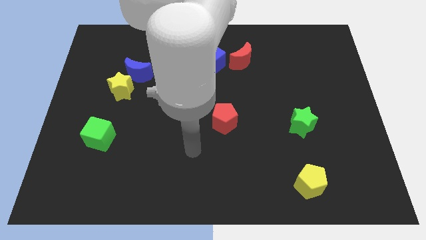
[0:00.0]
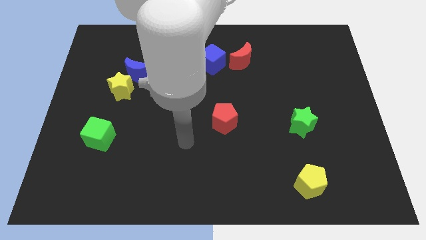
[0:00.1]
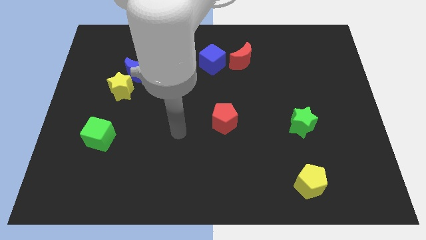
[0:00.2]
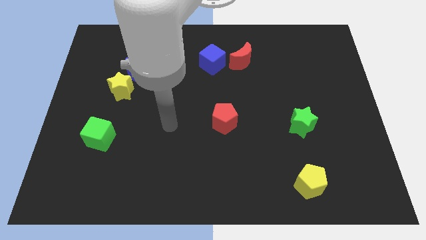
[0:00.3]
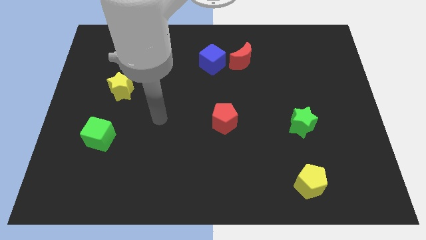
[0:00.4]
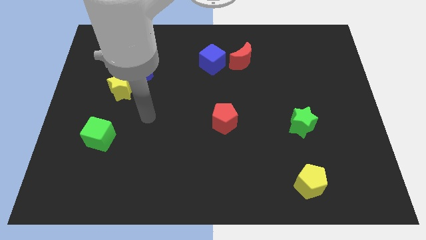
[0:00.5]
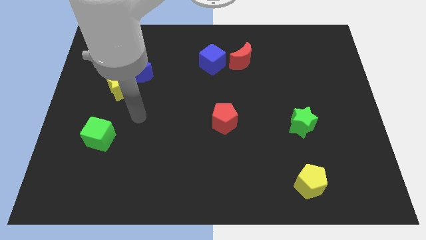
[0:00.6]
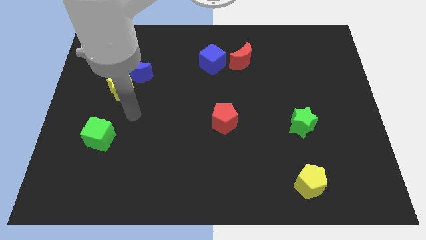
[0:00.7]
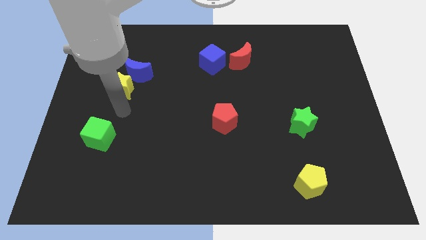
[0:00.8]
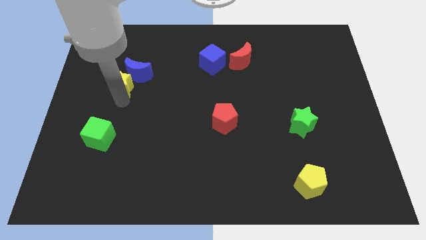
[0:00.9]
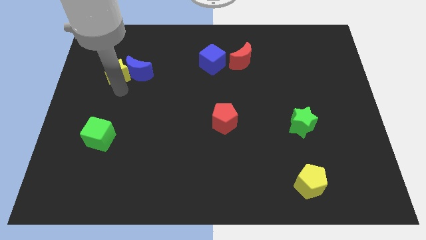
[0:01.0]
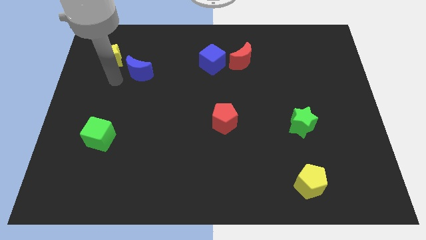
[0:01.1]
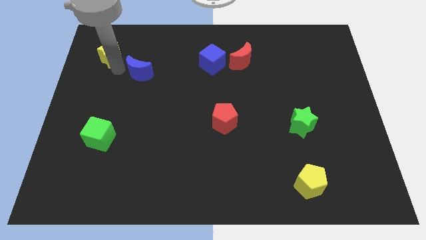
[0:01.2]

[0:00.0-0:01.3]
pull the blue moon apart from the yellow star

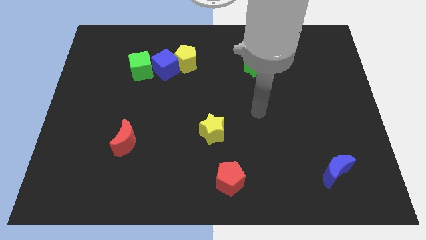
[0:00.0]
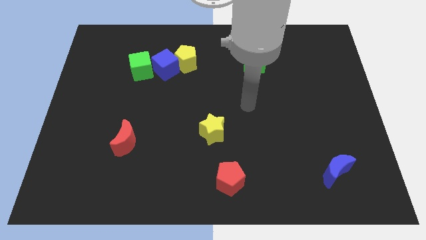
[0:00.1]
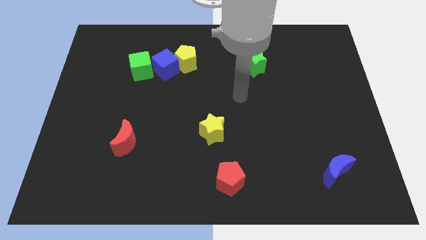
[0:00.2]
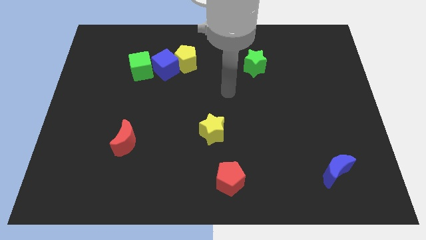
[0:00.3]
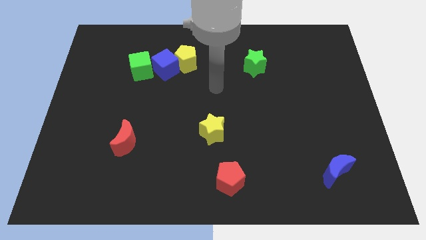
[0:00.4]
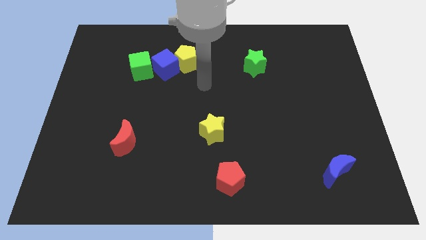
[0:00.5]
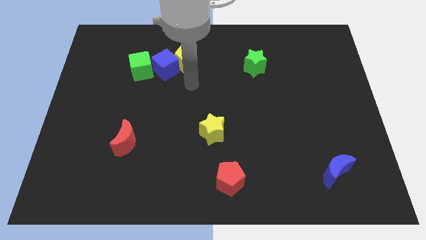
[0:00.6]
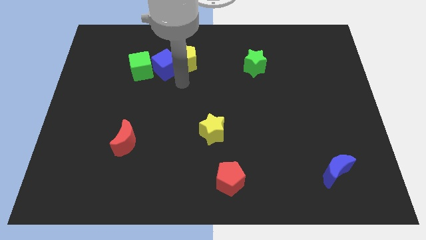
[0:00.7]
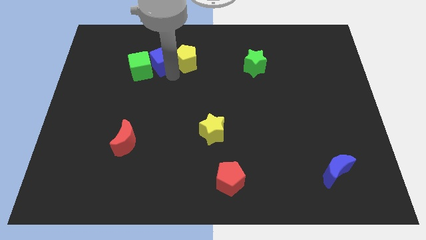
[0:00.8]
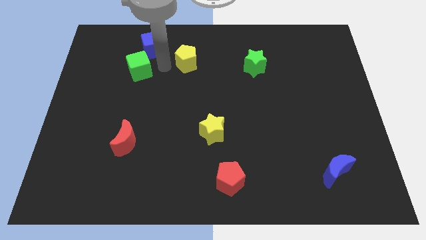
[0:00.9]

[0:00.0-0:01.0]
pull the yellow pentagon apart from the blue cube

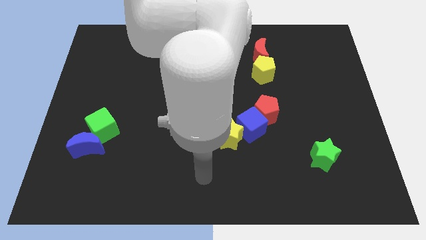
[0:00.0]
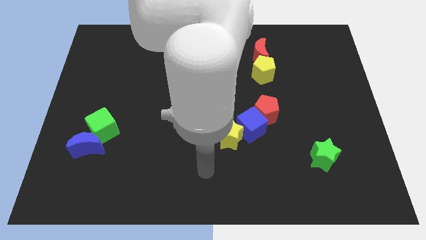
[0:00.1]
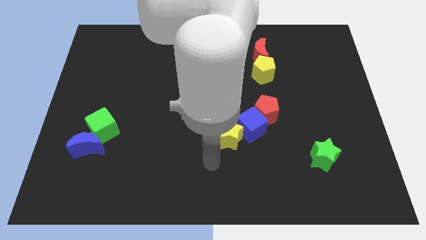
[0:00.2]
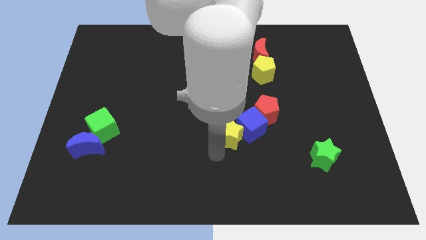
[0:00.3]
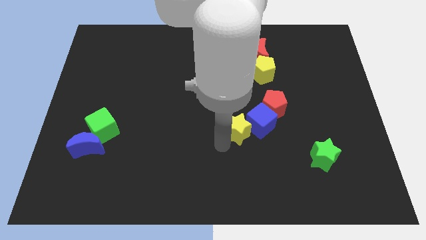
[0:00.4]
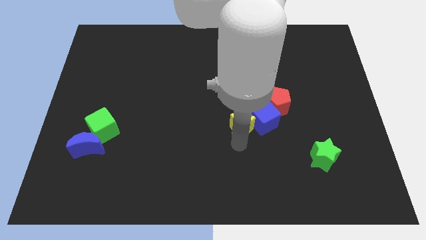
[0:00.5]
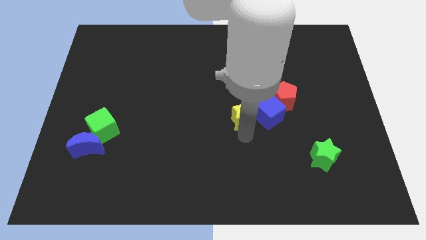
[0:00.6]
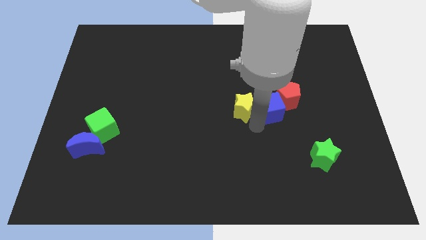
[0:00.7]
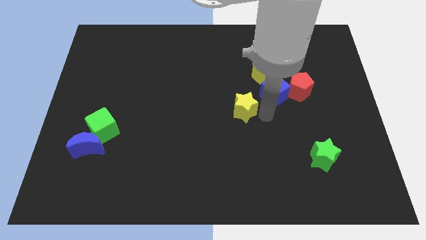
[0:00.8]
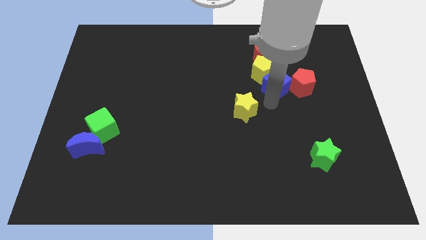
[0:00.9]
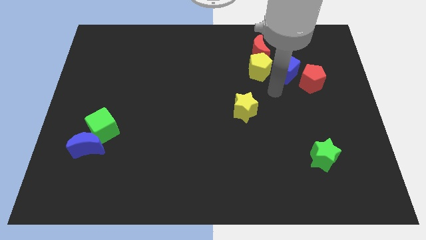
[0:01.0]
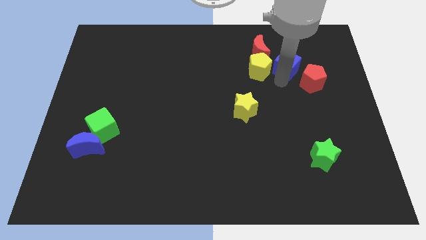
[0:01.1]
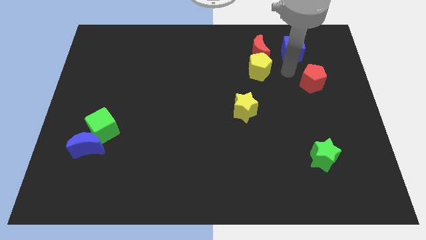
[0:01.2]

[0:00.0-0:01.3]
separate the red pentagon from the blue cube

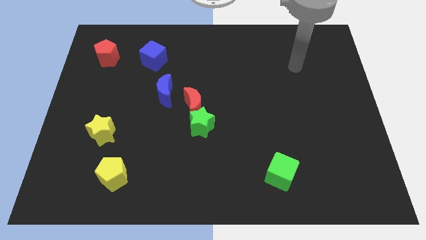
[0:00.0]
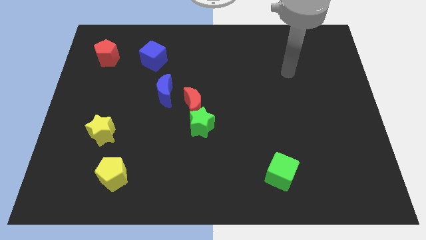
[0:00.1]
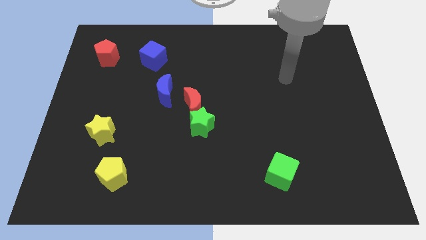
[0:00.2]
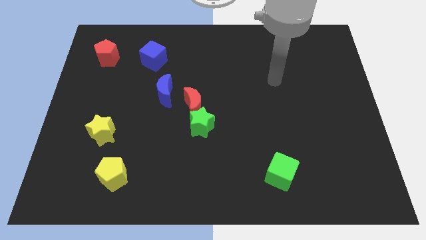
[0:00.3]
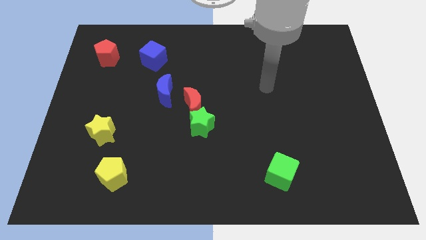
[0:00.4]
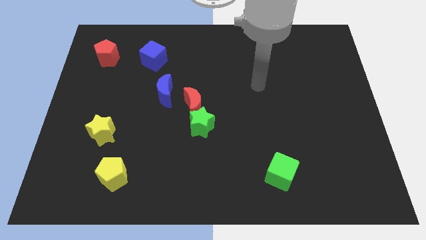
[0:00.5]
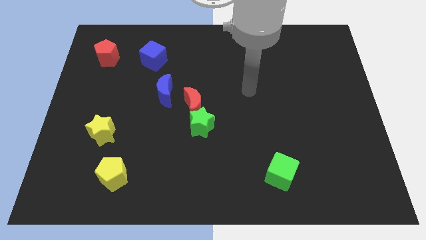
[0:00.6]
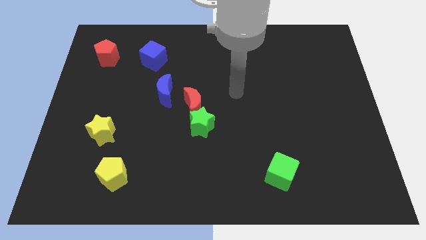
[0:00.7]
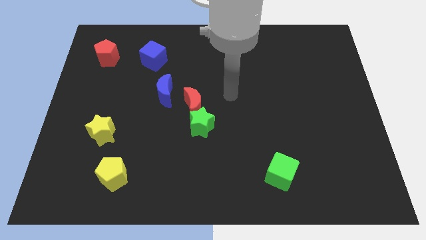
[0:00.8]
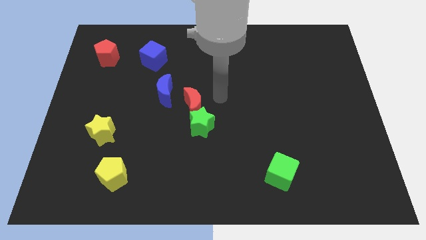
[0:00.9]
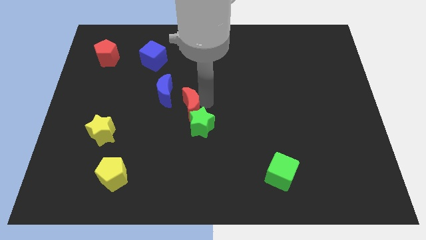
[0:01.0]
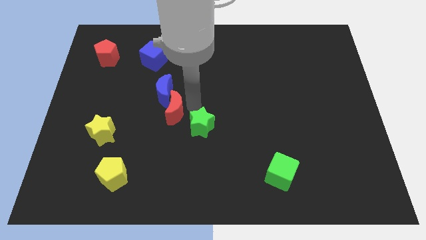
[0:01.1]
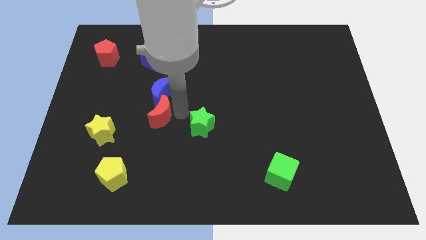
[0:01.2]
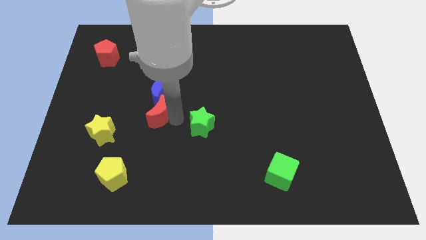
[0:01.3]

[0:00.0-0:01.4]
separate the green star from the red moon

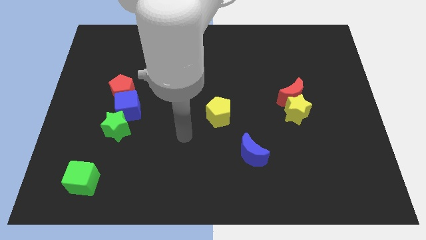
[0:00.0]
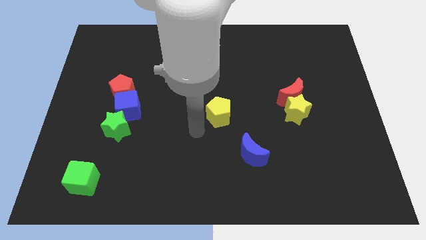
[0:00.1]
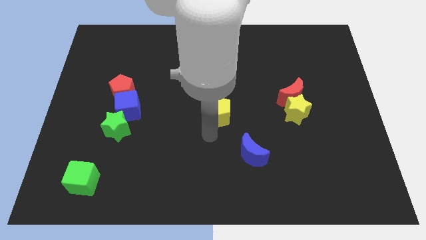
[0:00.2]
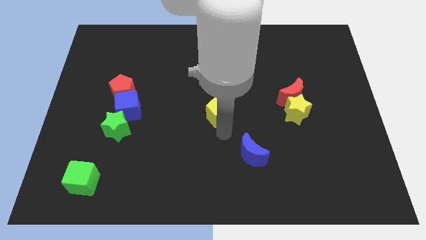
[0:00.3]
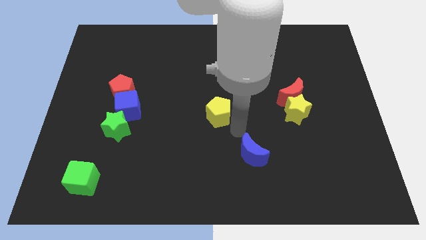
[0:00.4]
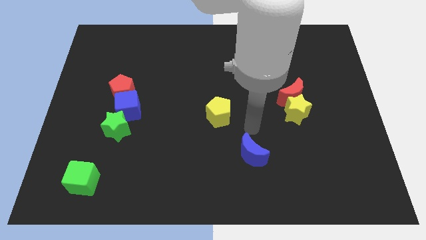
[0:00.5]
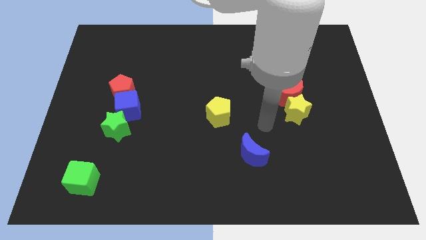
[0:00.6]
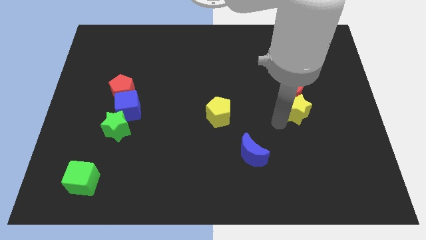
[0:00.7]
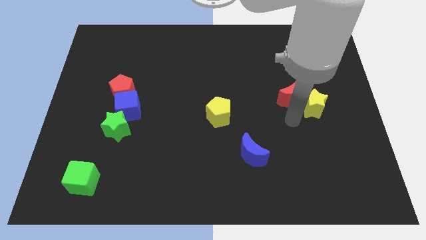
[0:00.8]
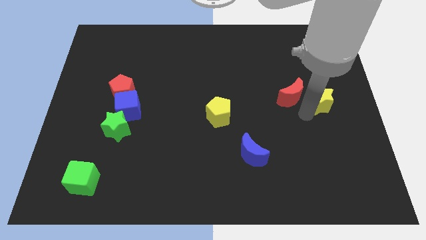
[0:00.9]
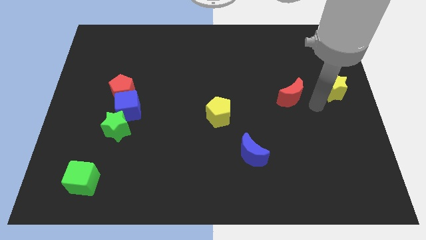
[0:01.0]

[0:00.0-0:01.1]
separate the red moon from the yellow star

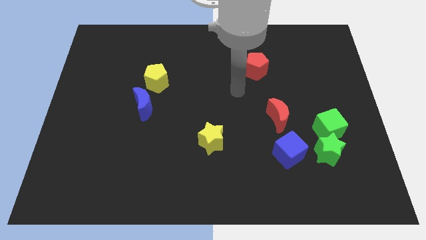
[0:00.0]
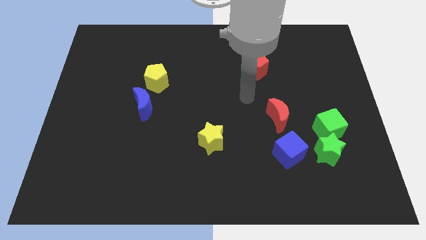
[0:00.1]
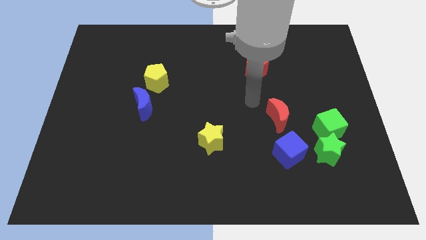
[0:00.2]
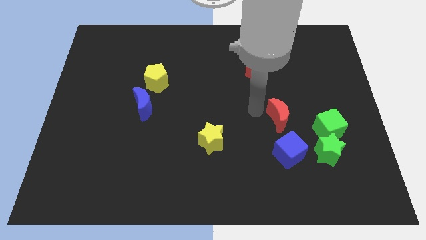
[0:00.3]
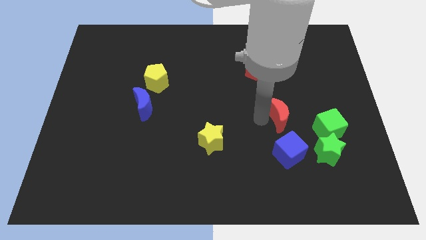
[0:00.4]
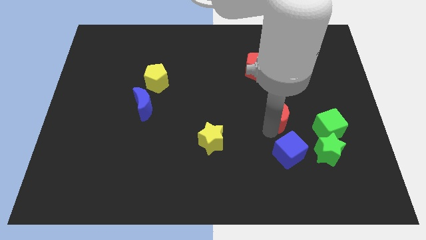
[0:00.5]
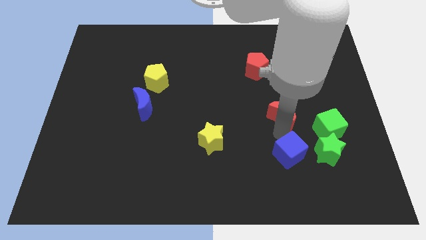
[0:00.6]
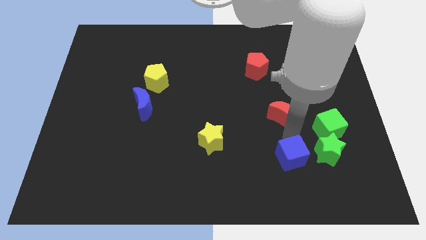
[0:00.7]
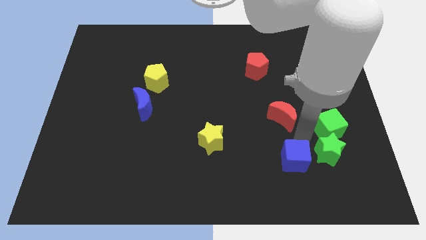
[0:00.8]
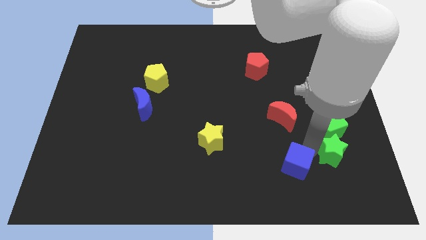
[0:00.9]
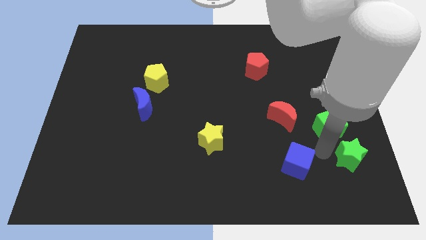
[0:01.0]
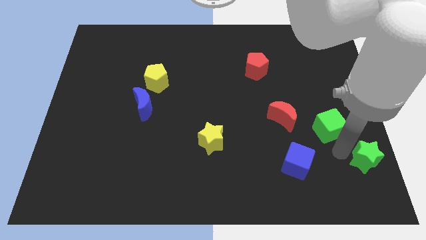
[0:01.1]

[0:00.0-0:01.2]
move the green cube away from the green star

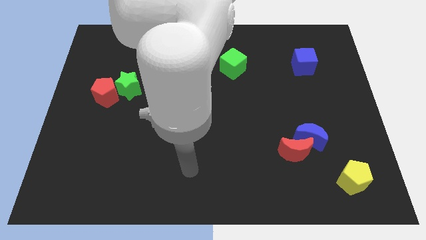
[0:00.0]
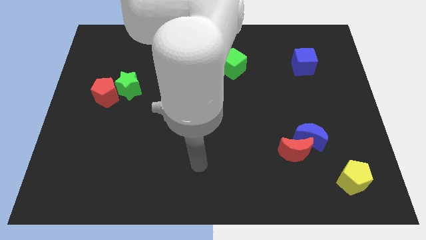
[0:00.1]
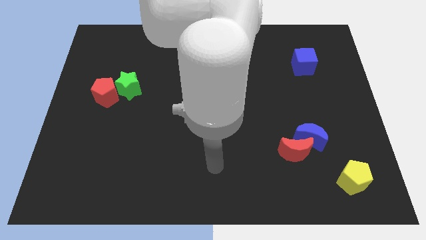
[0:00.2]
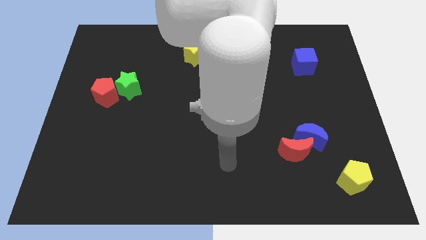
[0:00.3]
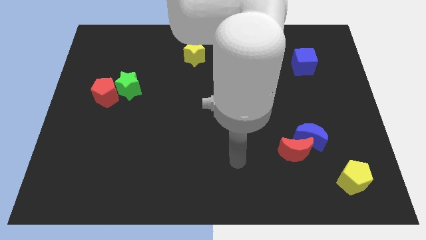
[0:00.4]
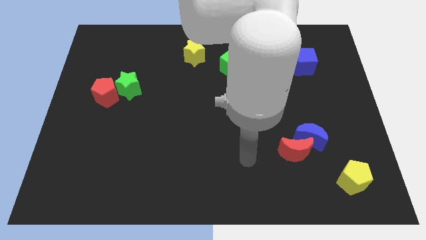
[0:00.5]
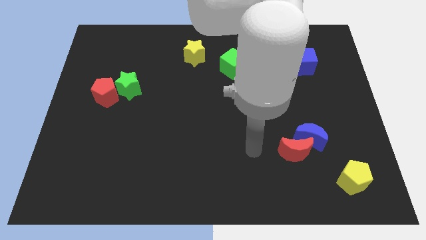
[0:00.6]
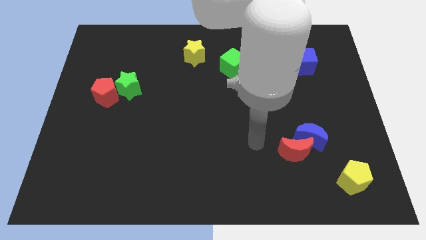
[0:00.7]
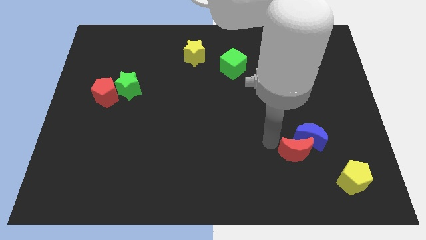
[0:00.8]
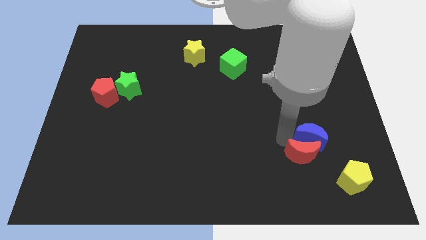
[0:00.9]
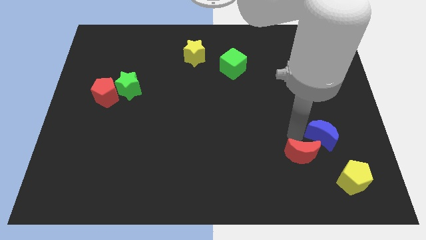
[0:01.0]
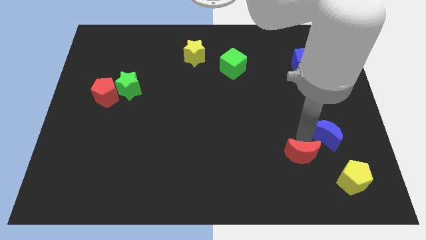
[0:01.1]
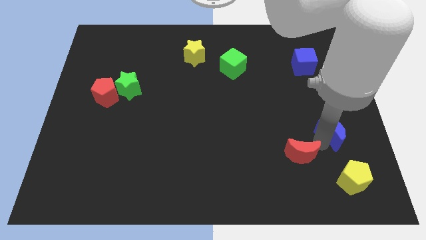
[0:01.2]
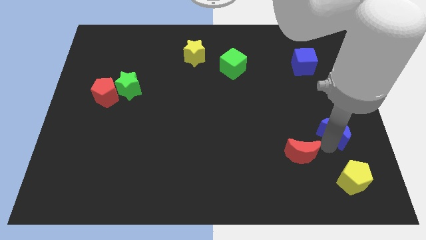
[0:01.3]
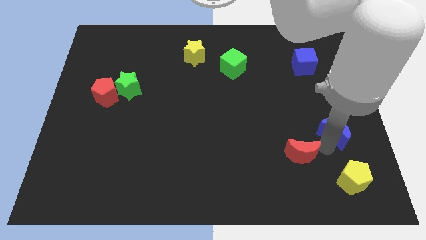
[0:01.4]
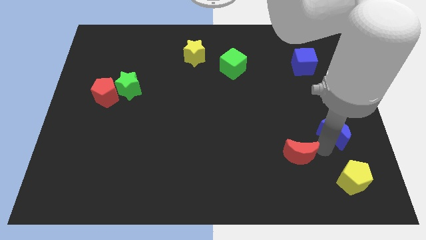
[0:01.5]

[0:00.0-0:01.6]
pull the red moon apart from the blue moon

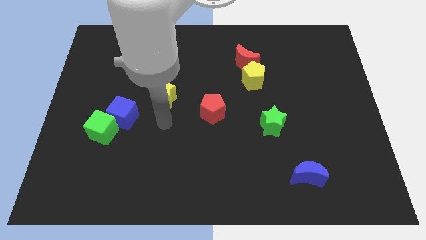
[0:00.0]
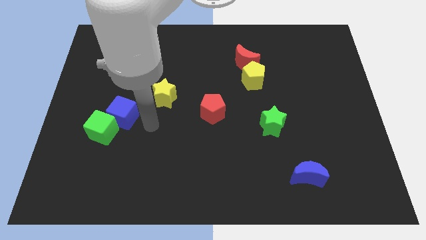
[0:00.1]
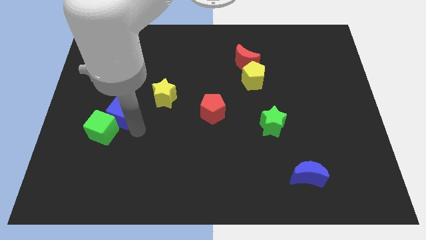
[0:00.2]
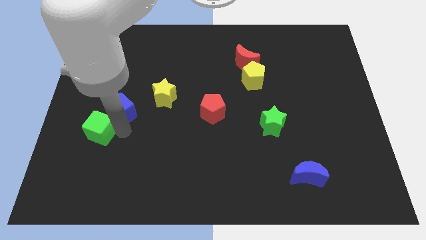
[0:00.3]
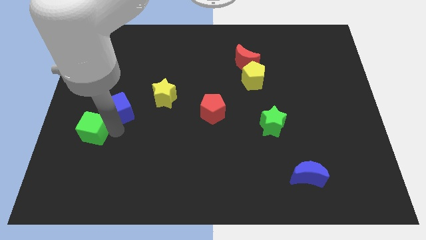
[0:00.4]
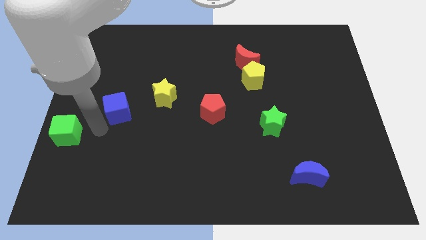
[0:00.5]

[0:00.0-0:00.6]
pull the blue cube apart from the green cube
